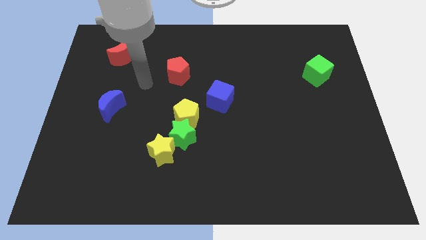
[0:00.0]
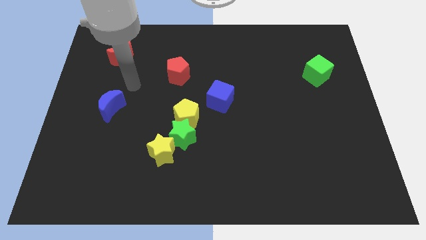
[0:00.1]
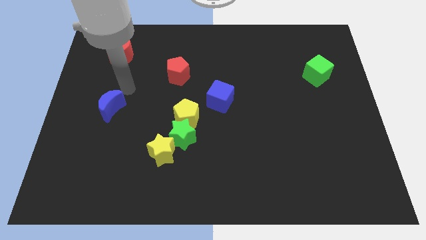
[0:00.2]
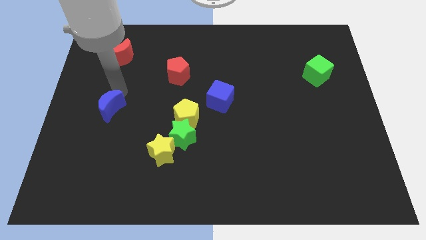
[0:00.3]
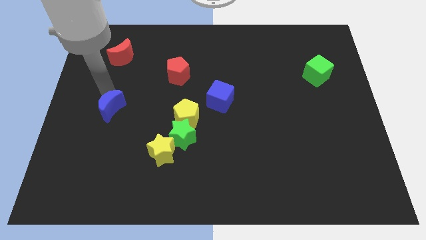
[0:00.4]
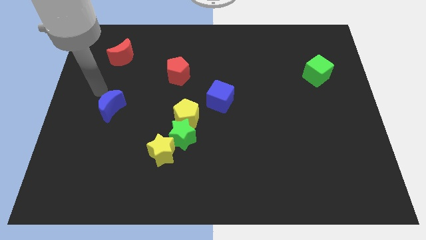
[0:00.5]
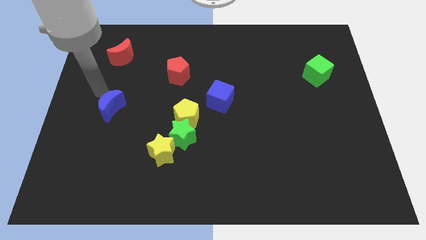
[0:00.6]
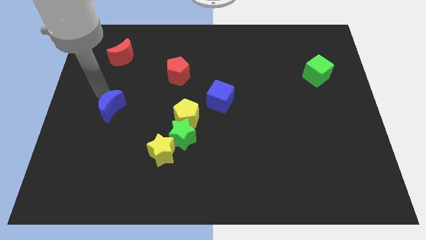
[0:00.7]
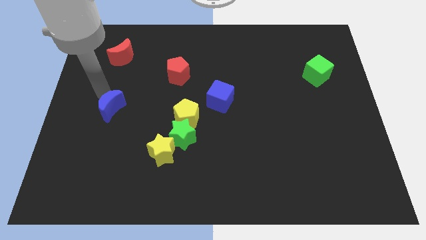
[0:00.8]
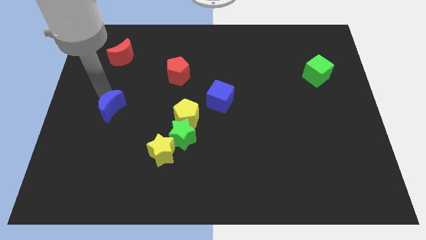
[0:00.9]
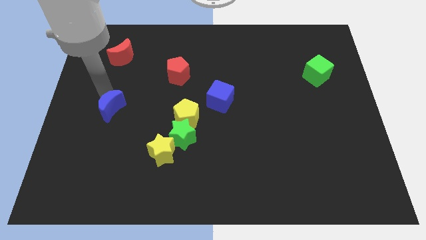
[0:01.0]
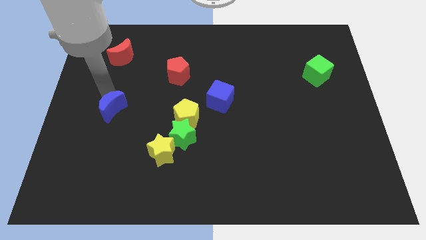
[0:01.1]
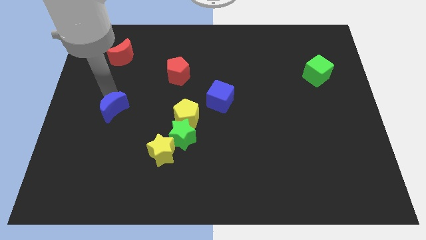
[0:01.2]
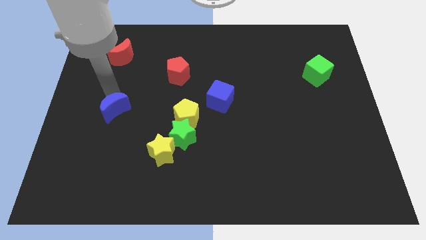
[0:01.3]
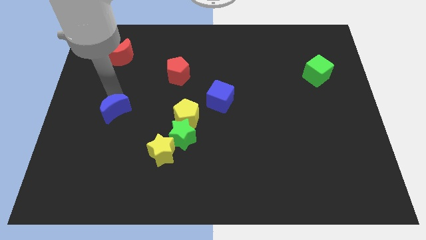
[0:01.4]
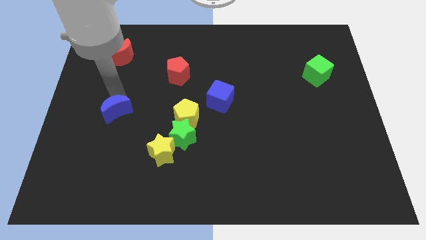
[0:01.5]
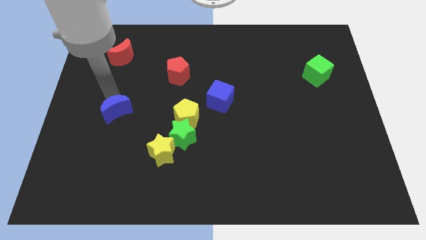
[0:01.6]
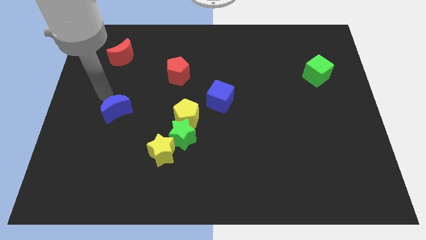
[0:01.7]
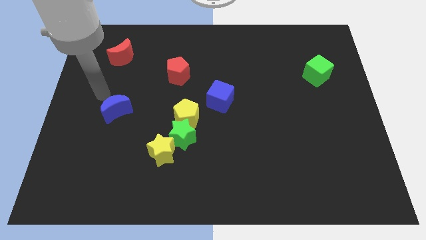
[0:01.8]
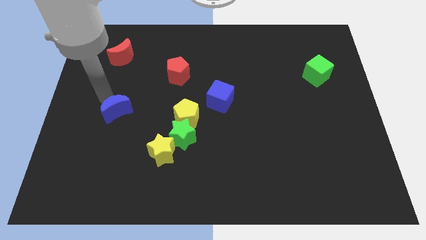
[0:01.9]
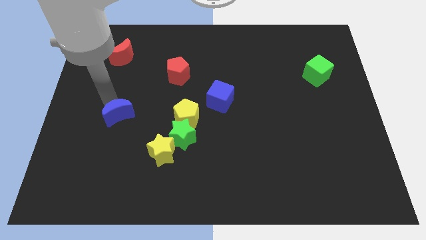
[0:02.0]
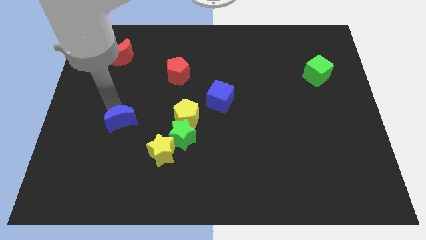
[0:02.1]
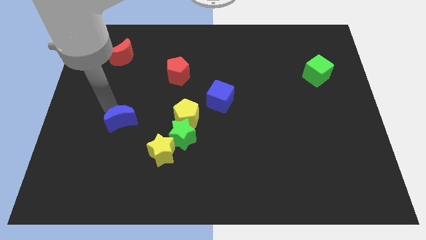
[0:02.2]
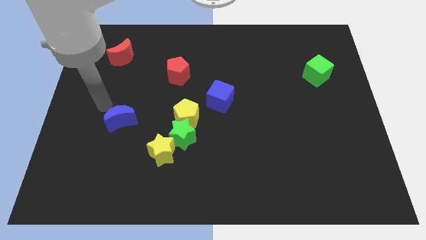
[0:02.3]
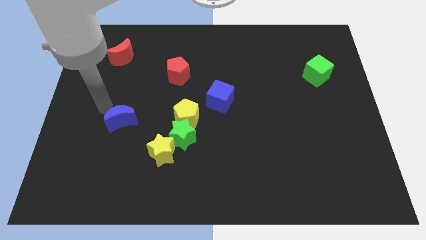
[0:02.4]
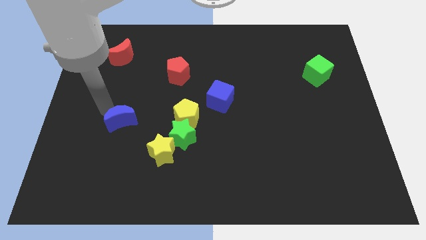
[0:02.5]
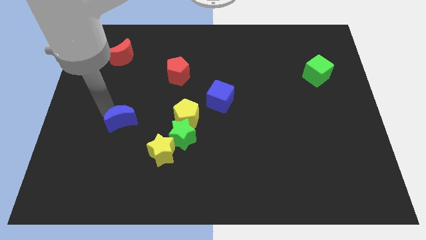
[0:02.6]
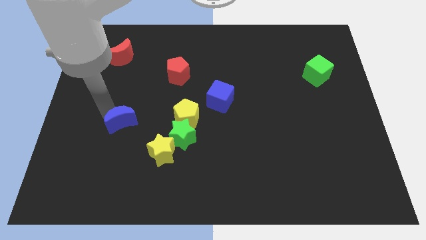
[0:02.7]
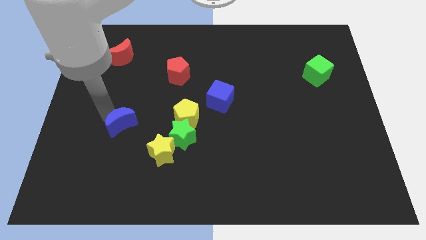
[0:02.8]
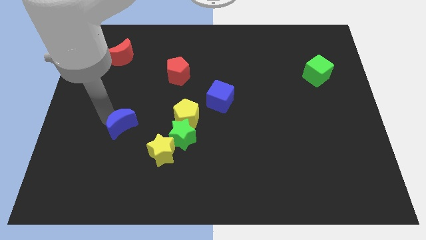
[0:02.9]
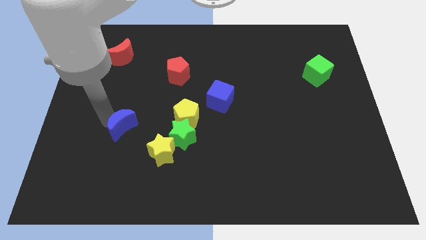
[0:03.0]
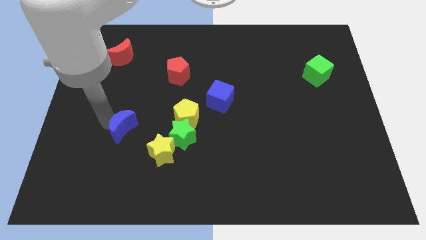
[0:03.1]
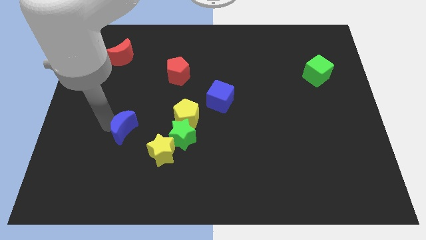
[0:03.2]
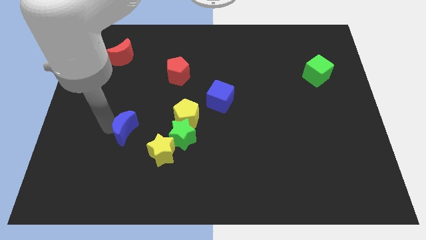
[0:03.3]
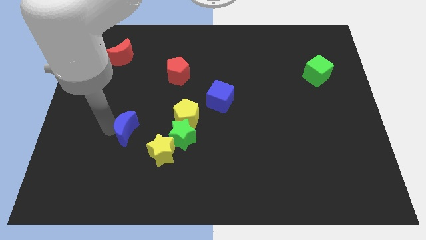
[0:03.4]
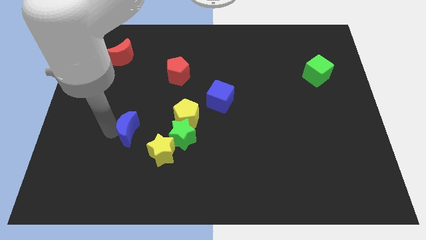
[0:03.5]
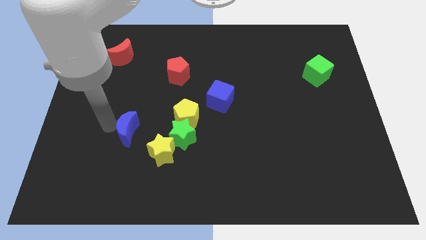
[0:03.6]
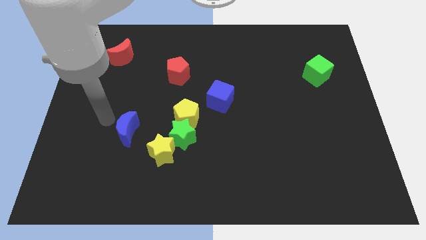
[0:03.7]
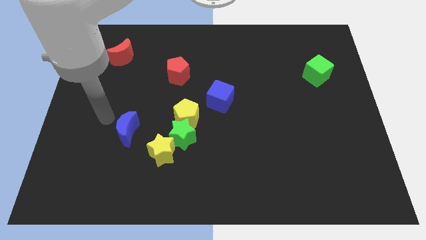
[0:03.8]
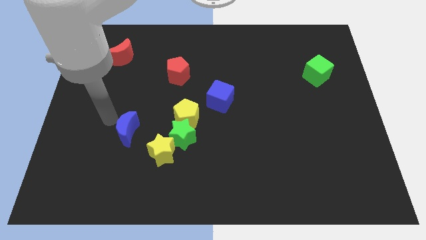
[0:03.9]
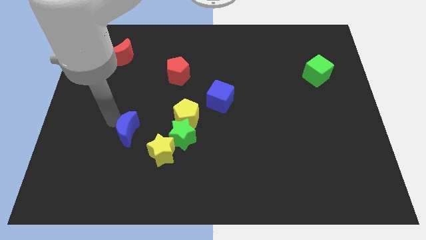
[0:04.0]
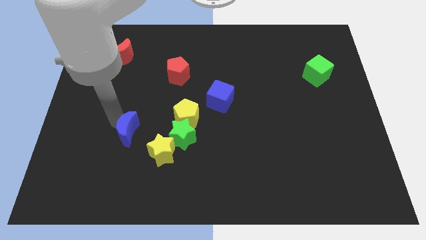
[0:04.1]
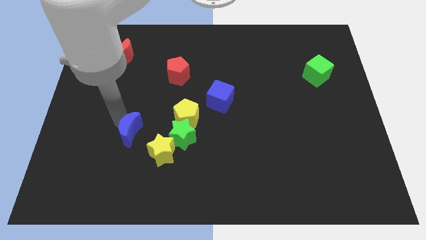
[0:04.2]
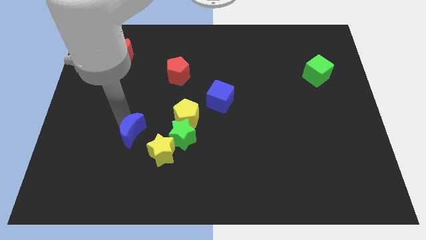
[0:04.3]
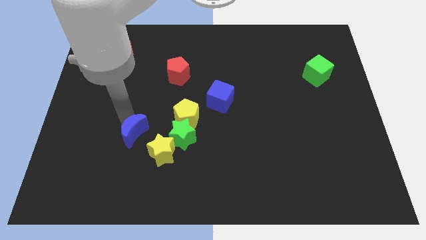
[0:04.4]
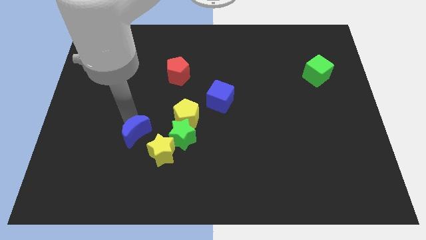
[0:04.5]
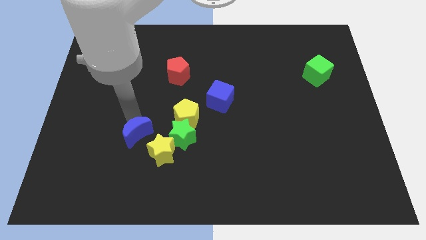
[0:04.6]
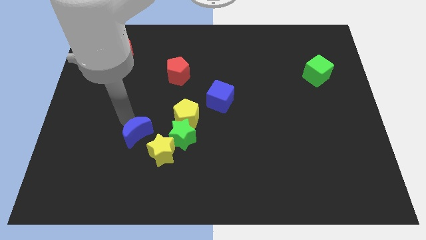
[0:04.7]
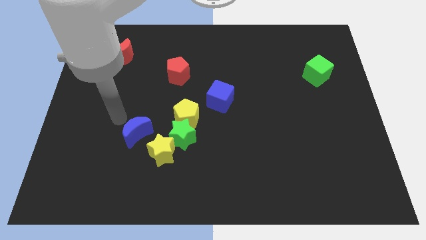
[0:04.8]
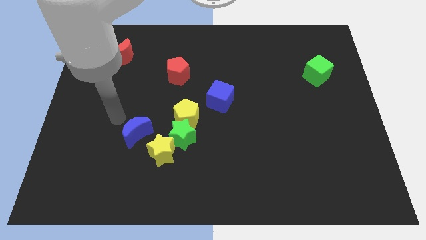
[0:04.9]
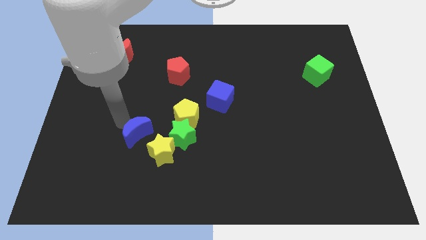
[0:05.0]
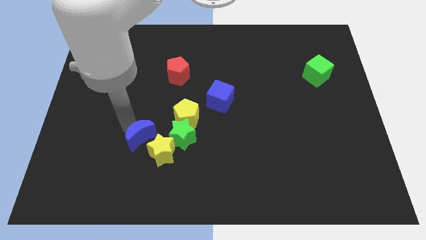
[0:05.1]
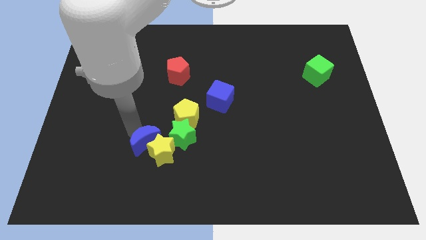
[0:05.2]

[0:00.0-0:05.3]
put the blue moon close to the yellow star

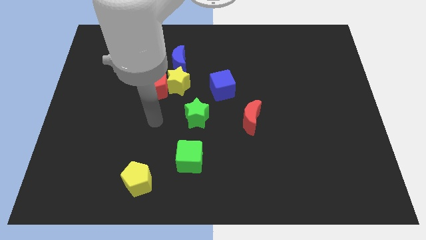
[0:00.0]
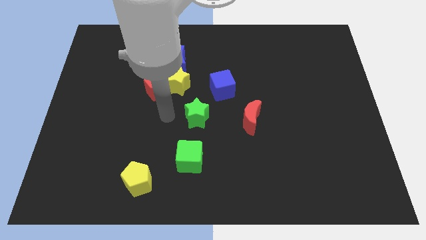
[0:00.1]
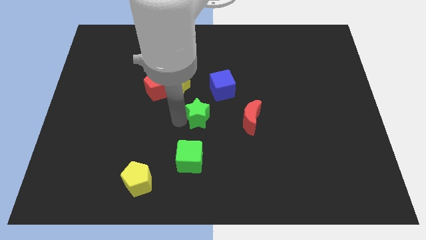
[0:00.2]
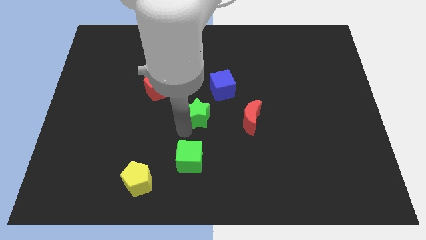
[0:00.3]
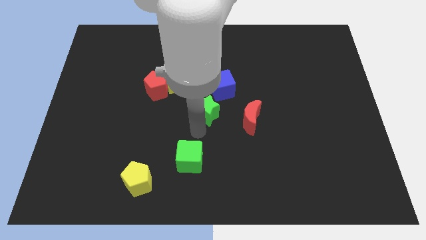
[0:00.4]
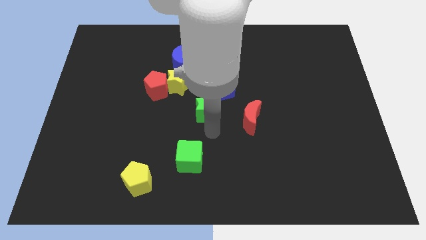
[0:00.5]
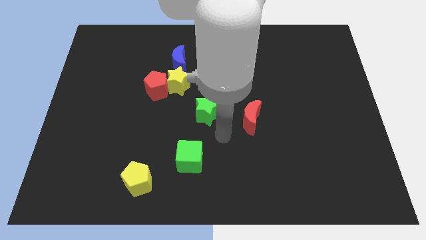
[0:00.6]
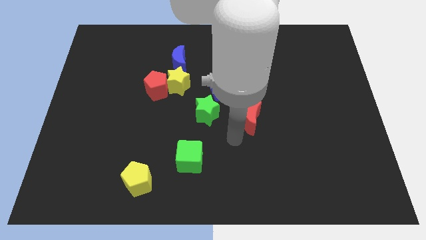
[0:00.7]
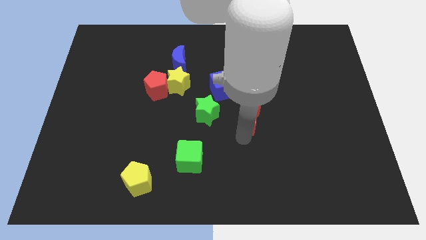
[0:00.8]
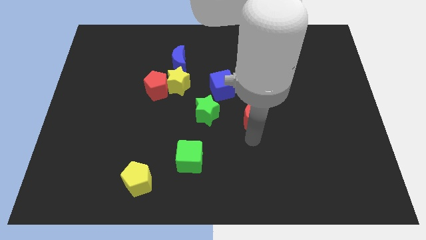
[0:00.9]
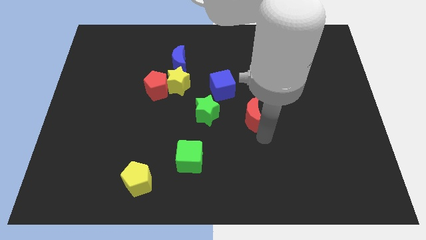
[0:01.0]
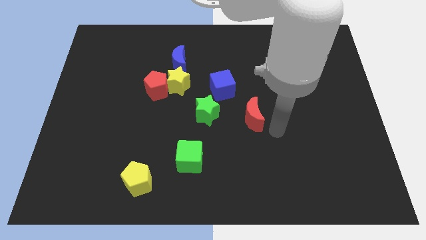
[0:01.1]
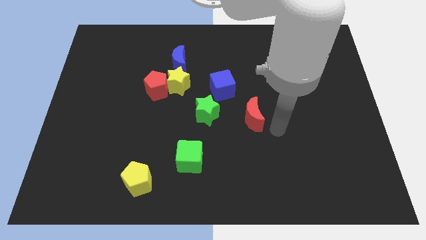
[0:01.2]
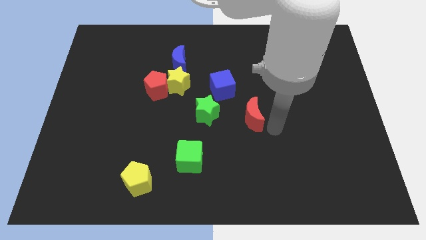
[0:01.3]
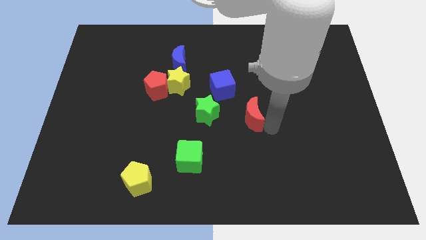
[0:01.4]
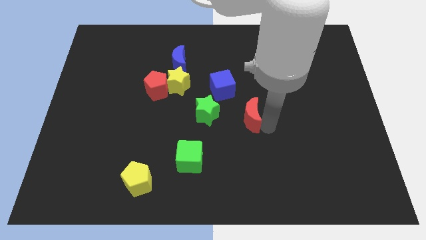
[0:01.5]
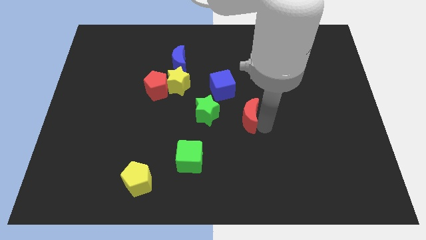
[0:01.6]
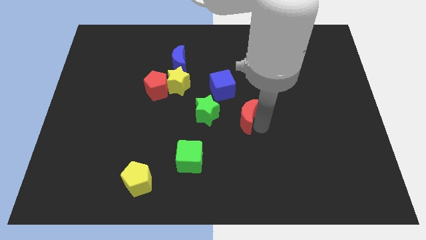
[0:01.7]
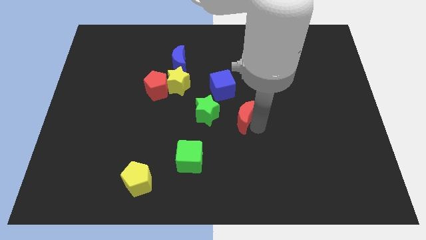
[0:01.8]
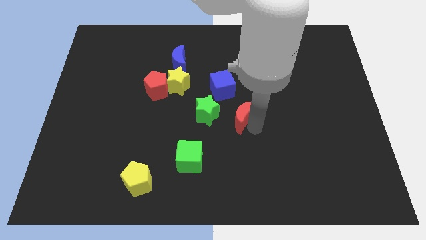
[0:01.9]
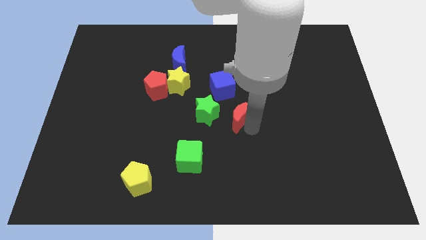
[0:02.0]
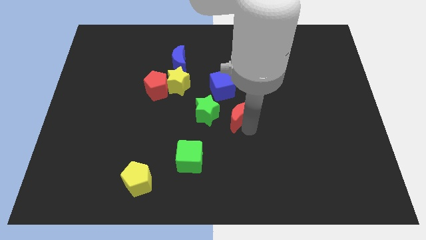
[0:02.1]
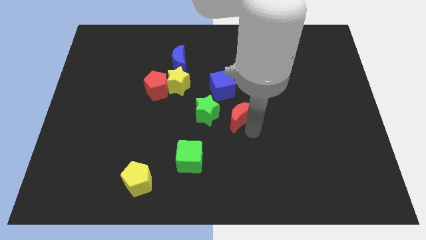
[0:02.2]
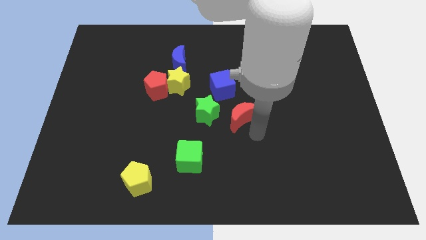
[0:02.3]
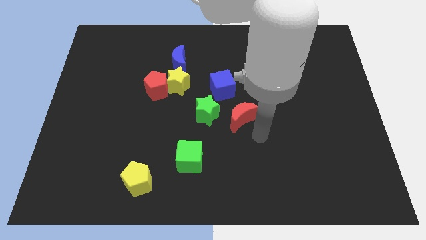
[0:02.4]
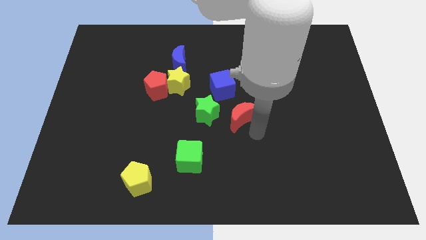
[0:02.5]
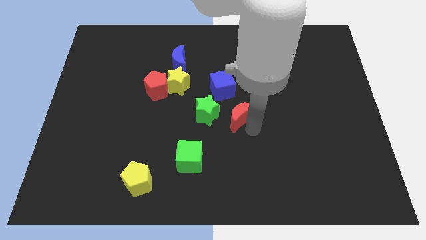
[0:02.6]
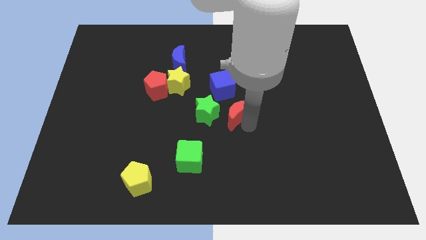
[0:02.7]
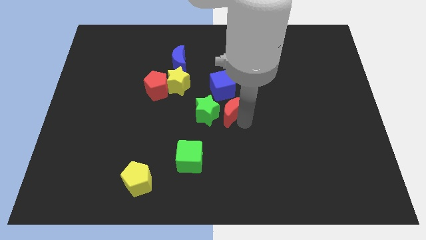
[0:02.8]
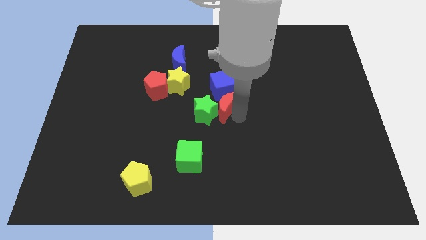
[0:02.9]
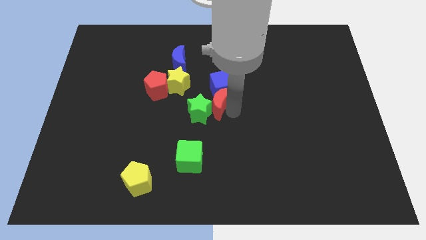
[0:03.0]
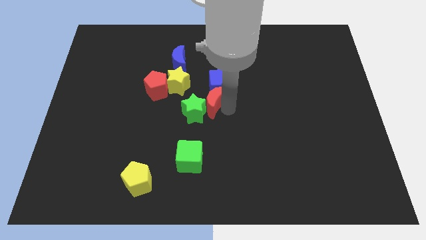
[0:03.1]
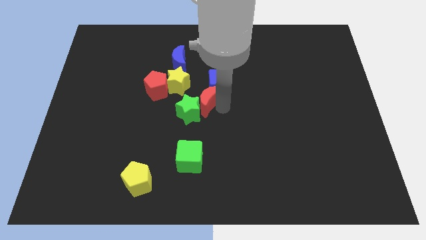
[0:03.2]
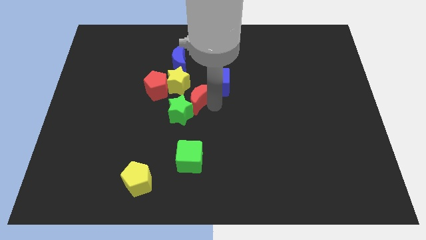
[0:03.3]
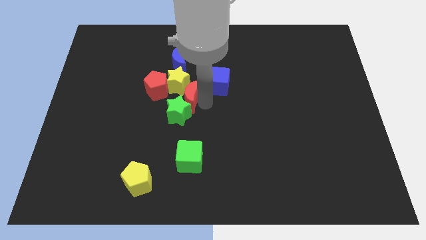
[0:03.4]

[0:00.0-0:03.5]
push the red moon to the yellow star
